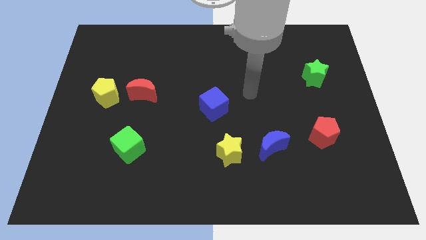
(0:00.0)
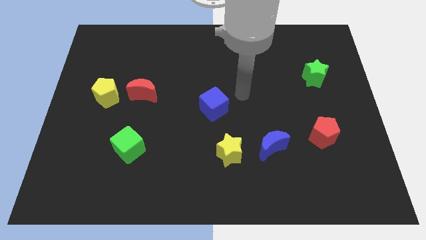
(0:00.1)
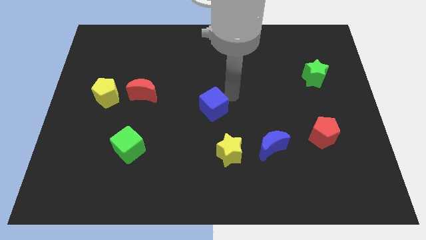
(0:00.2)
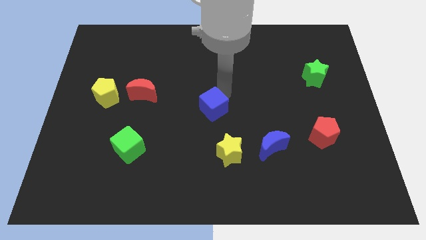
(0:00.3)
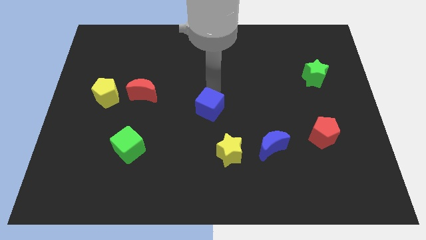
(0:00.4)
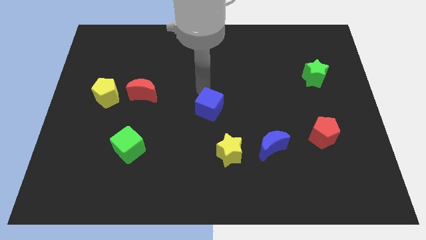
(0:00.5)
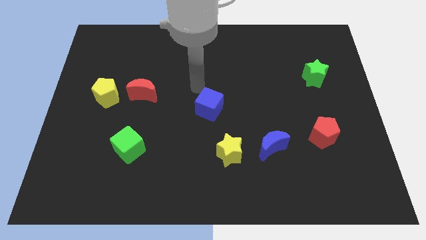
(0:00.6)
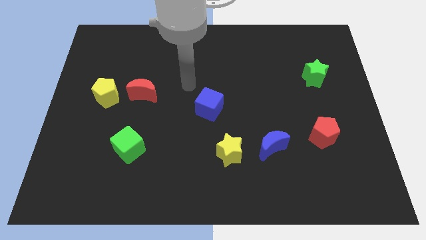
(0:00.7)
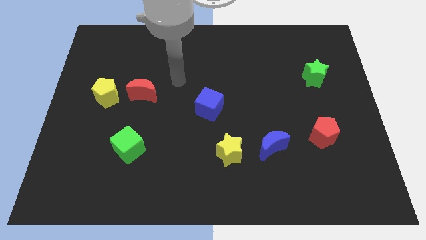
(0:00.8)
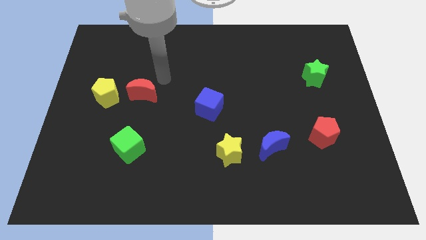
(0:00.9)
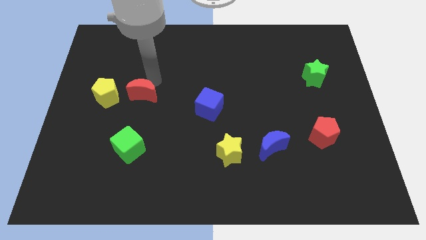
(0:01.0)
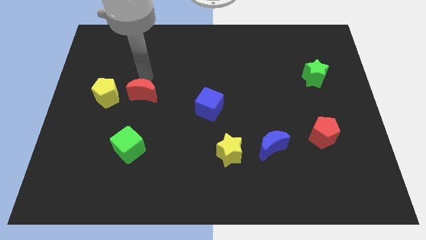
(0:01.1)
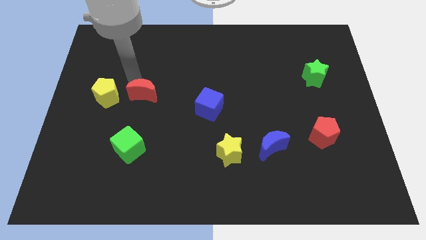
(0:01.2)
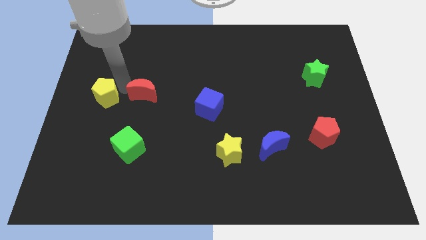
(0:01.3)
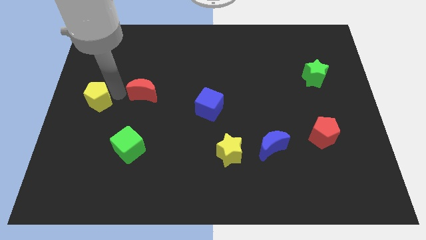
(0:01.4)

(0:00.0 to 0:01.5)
separate the red moon from the yellow pentagon

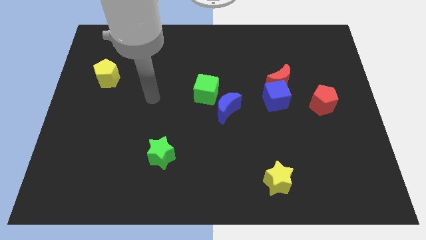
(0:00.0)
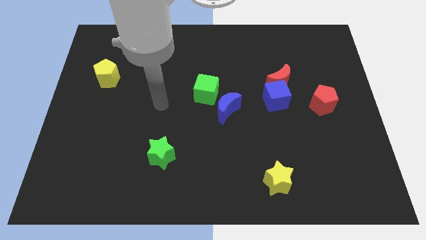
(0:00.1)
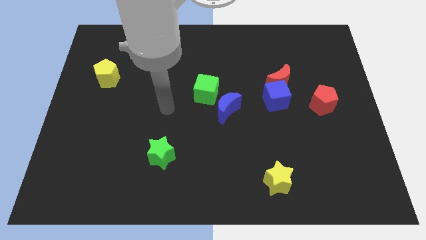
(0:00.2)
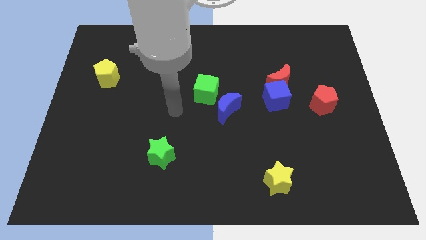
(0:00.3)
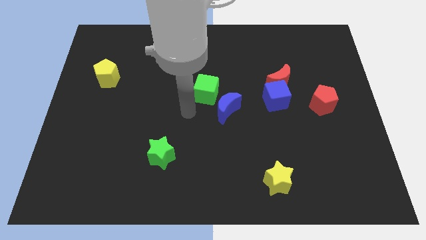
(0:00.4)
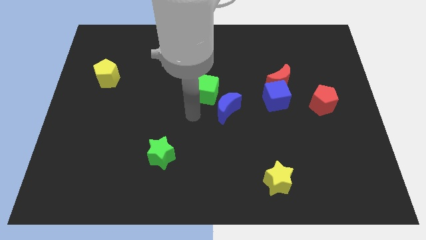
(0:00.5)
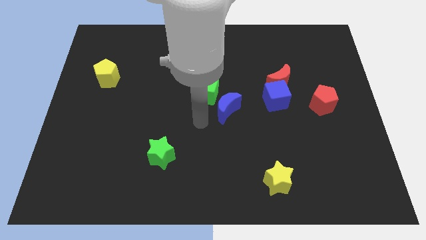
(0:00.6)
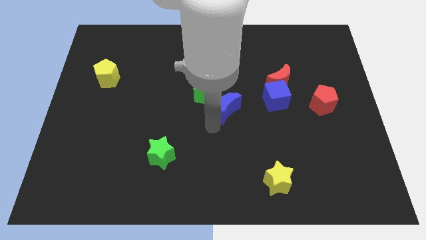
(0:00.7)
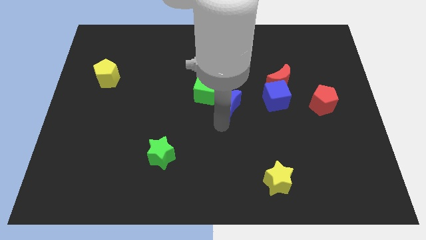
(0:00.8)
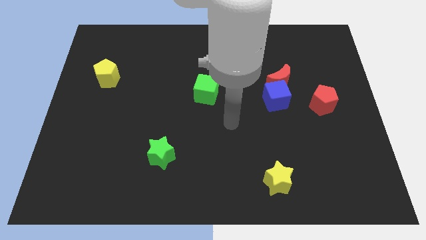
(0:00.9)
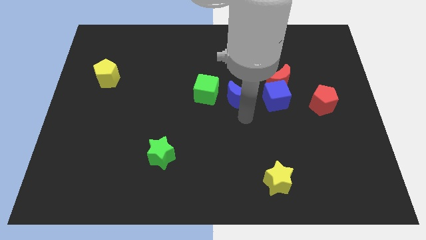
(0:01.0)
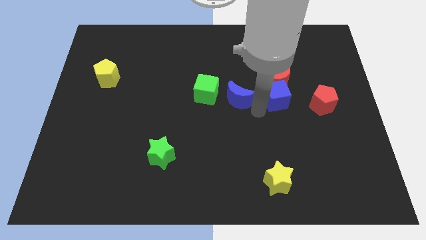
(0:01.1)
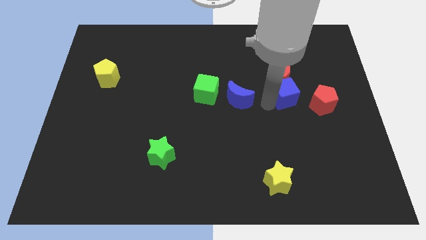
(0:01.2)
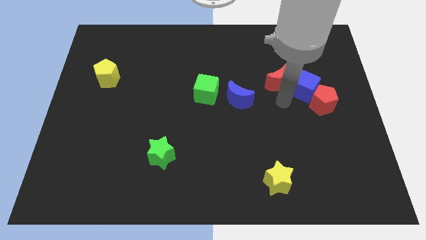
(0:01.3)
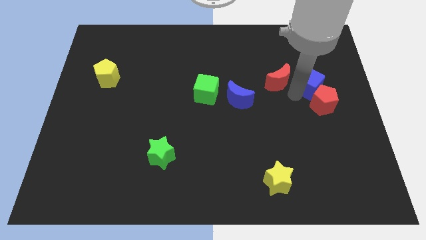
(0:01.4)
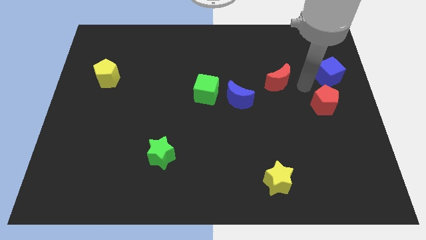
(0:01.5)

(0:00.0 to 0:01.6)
separate the red moon from the blue cube

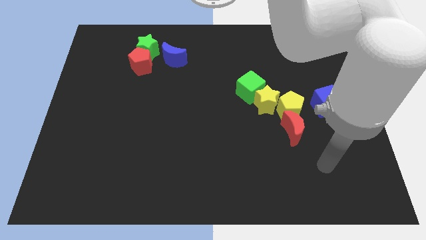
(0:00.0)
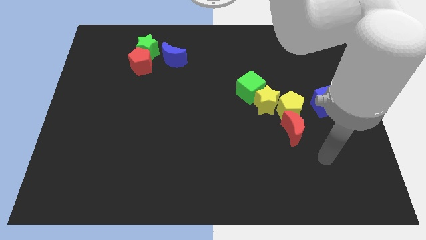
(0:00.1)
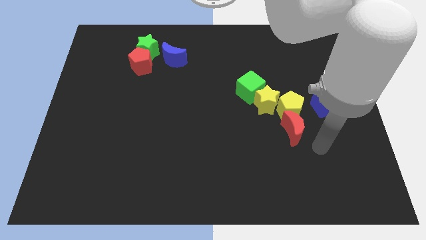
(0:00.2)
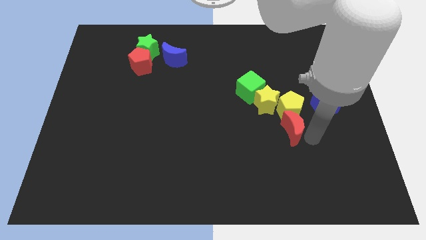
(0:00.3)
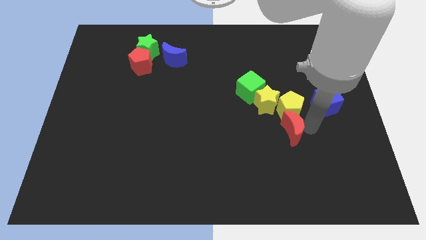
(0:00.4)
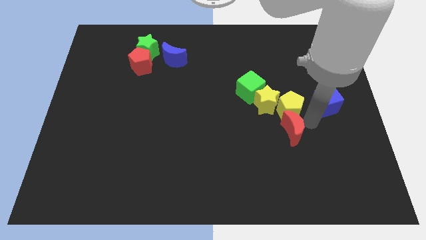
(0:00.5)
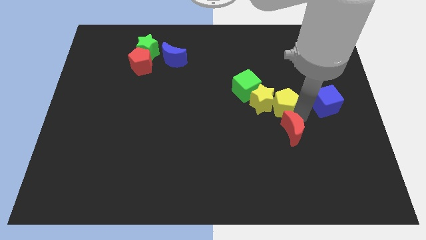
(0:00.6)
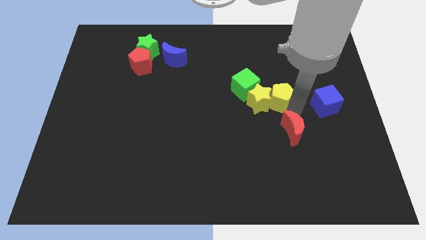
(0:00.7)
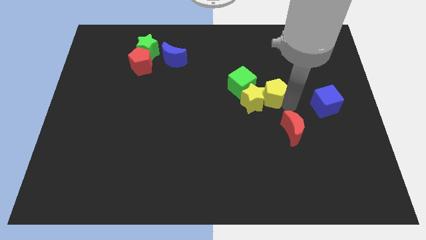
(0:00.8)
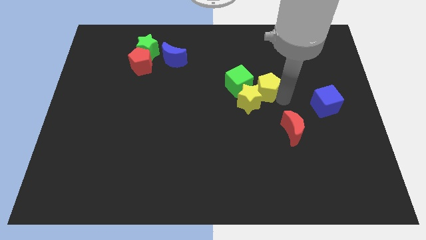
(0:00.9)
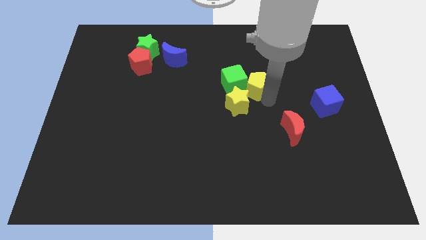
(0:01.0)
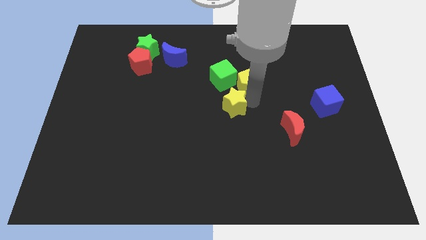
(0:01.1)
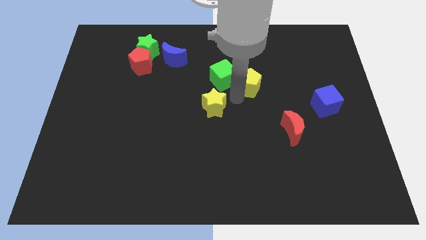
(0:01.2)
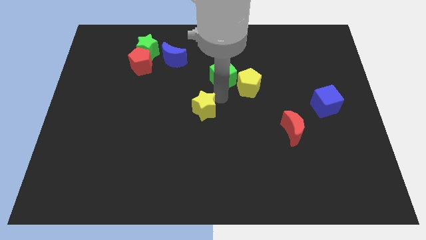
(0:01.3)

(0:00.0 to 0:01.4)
separate the green cube from the yellow star

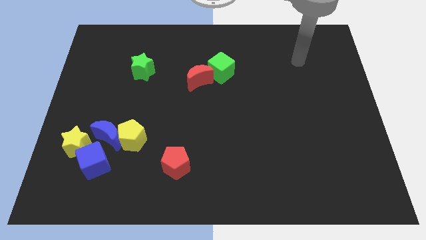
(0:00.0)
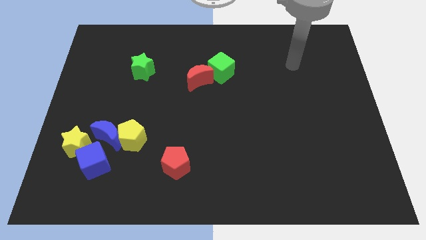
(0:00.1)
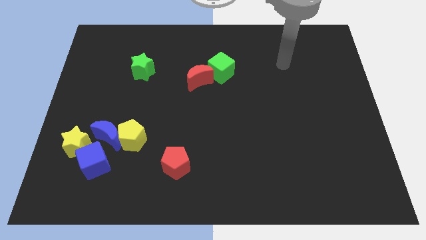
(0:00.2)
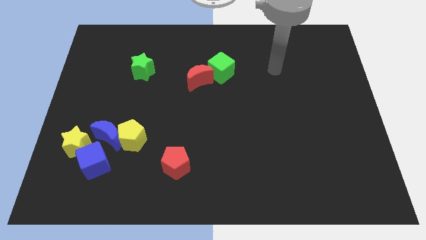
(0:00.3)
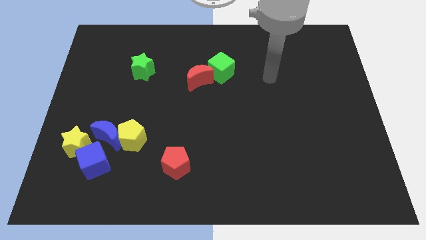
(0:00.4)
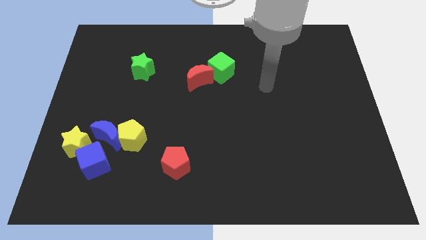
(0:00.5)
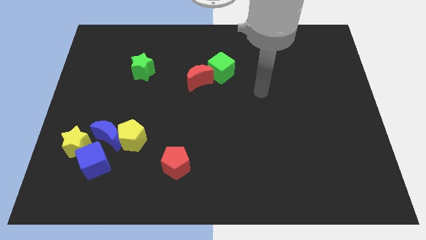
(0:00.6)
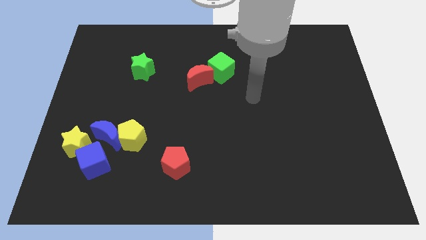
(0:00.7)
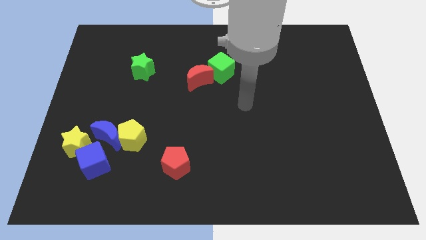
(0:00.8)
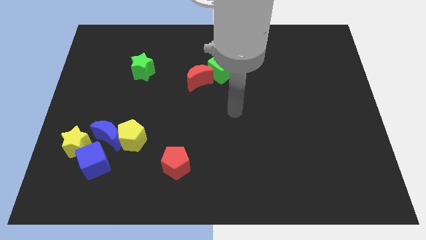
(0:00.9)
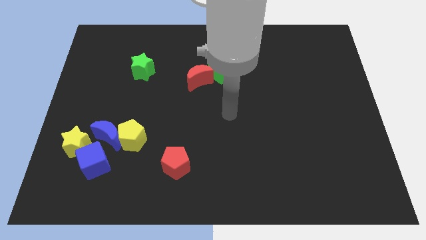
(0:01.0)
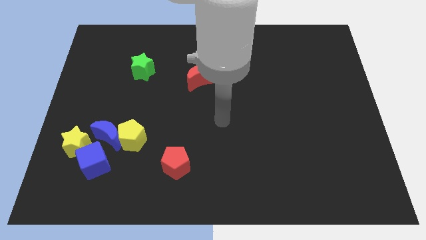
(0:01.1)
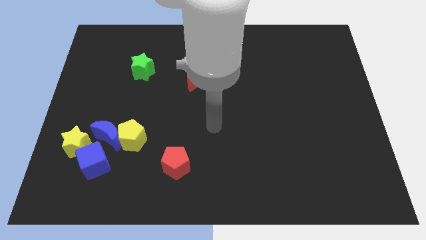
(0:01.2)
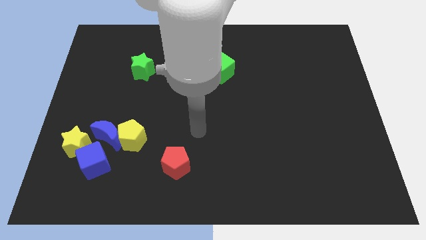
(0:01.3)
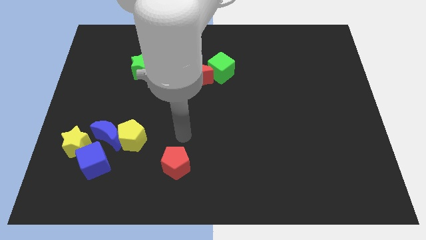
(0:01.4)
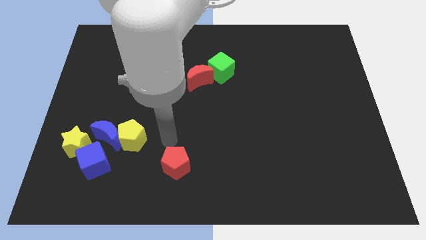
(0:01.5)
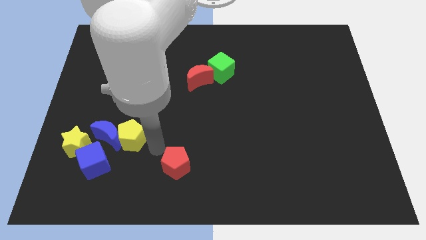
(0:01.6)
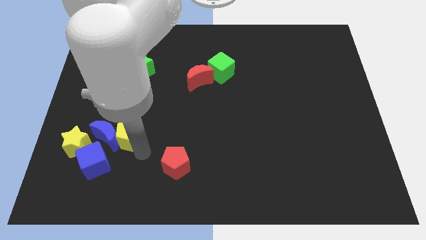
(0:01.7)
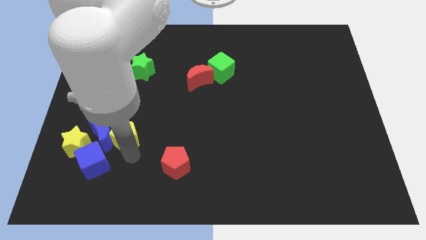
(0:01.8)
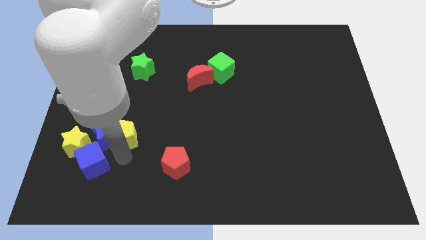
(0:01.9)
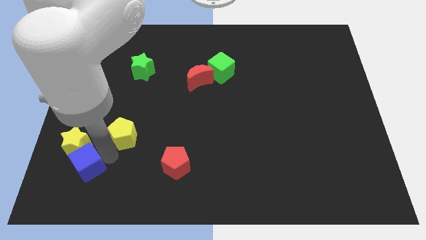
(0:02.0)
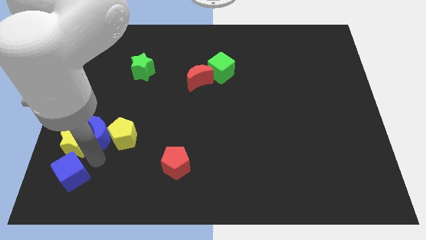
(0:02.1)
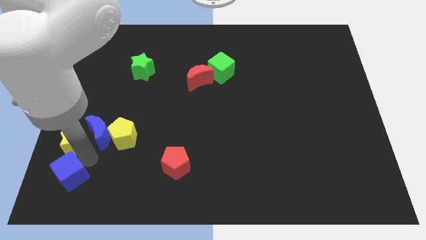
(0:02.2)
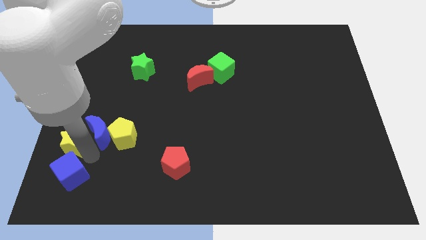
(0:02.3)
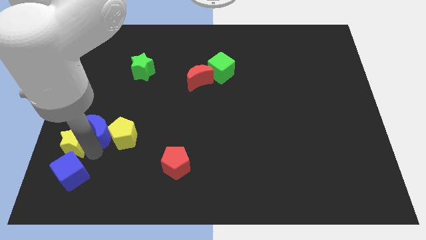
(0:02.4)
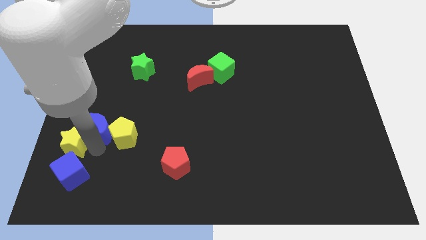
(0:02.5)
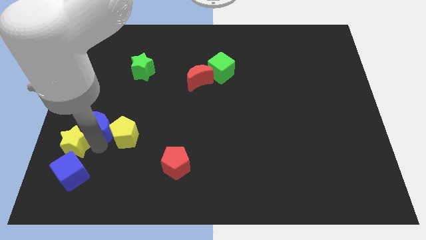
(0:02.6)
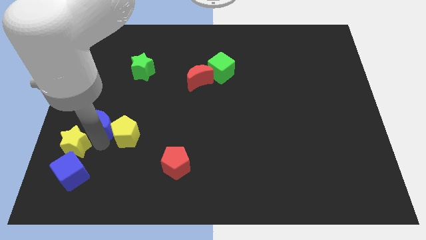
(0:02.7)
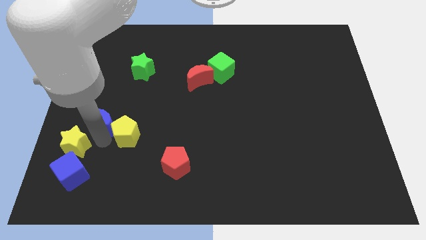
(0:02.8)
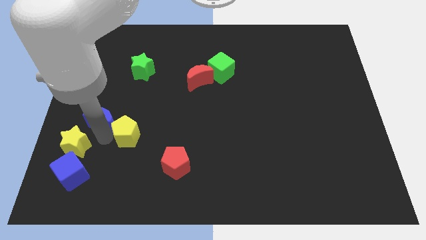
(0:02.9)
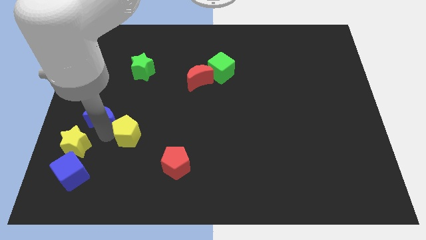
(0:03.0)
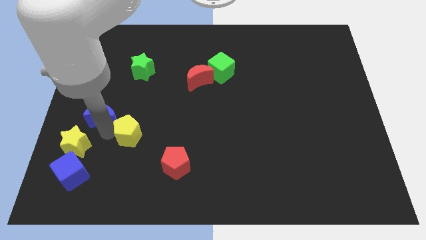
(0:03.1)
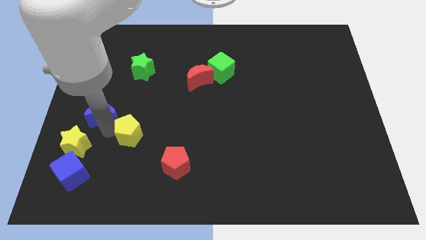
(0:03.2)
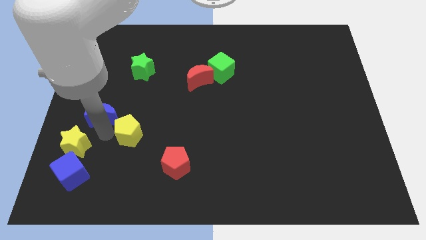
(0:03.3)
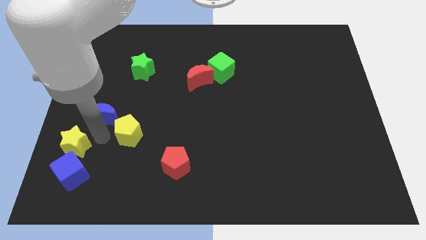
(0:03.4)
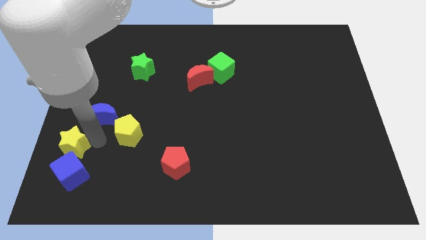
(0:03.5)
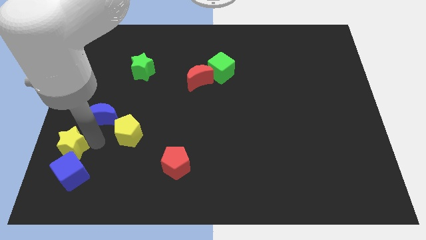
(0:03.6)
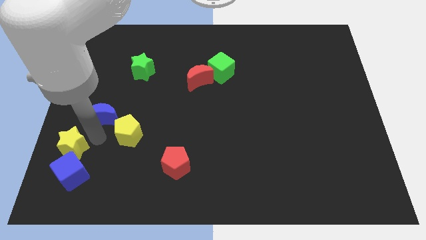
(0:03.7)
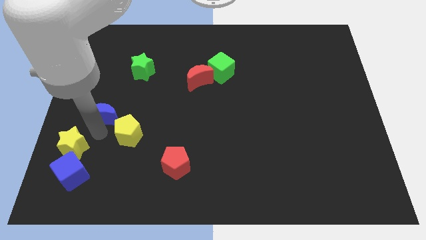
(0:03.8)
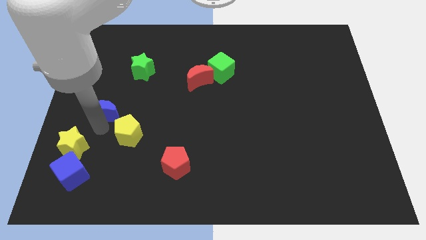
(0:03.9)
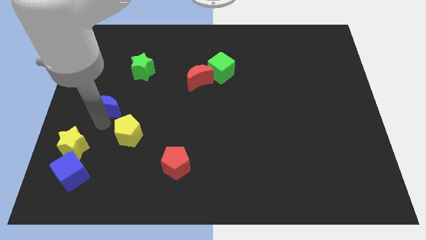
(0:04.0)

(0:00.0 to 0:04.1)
move the blue moon away from the yellow pentagon, yellow star, and blue cube

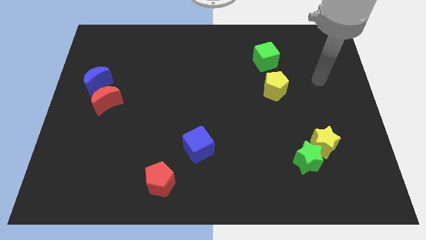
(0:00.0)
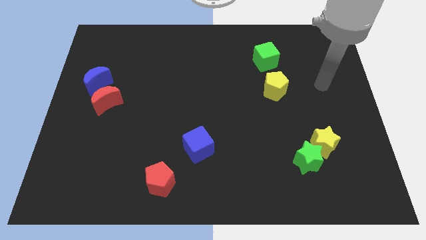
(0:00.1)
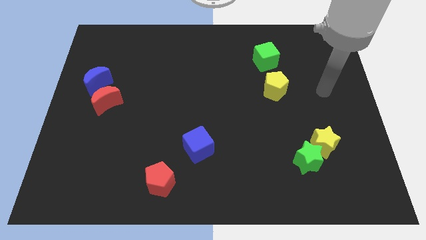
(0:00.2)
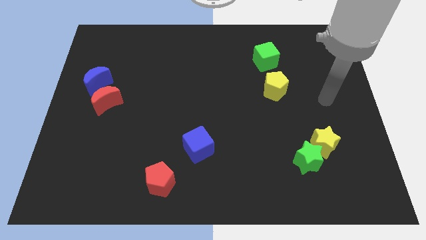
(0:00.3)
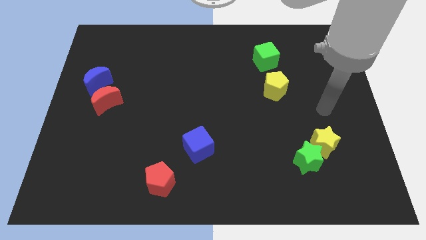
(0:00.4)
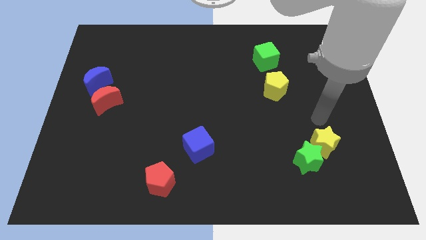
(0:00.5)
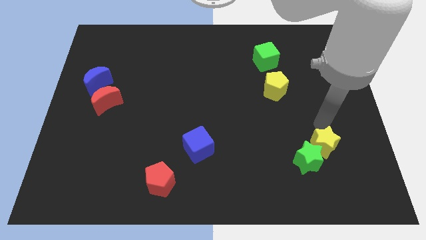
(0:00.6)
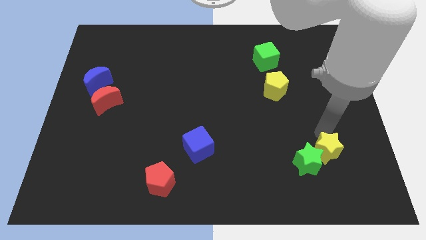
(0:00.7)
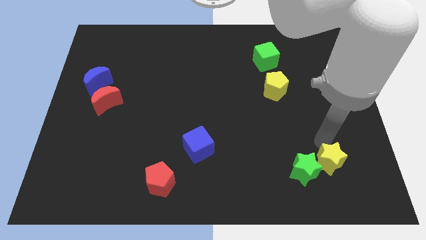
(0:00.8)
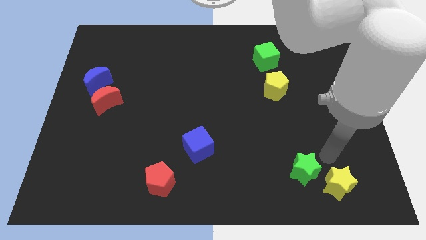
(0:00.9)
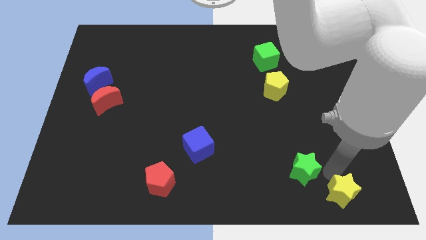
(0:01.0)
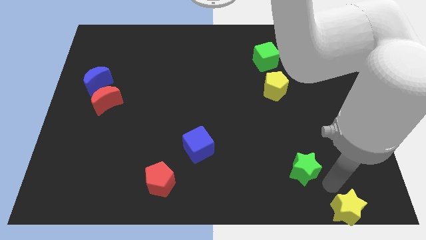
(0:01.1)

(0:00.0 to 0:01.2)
pull the green star apart from the yellow star
